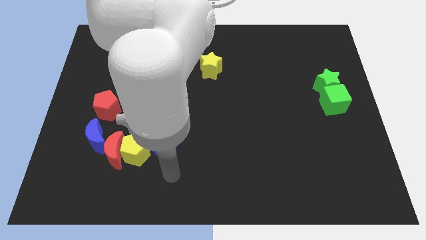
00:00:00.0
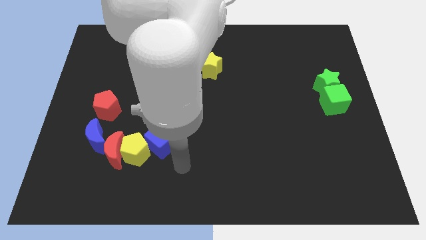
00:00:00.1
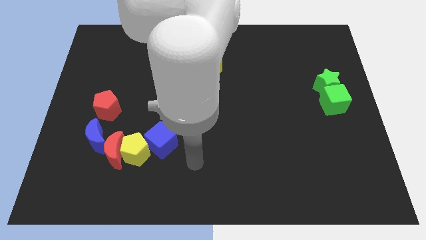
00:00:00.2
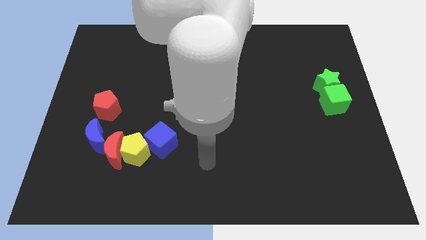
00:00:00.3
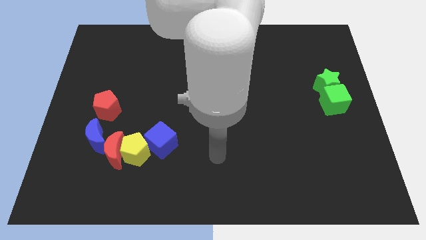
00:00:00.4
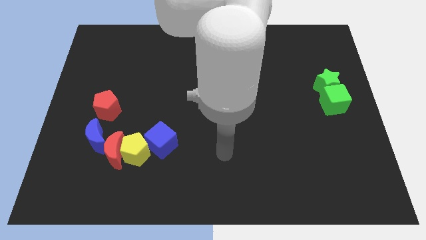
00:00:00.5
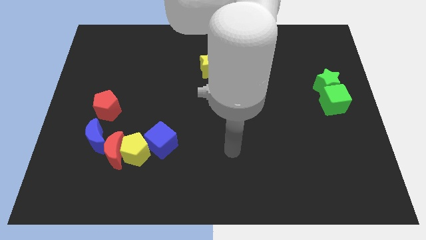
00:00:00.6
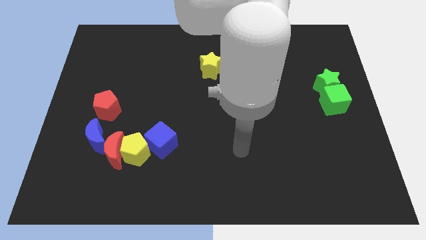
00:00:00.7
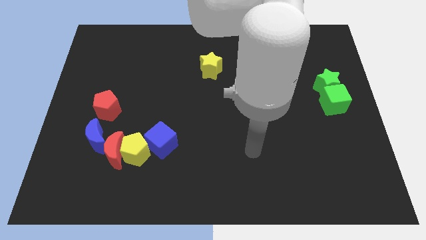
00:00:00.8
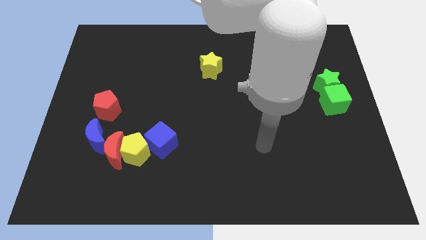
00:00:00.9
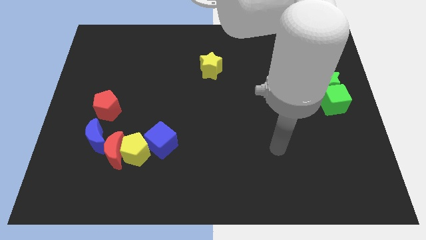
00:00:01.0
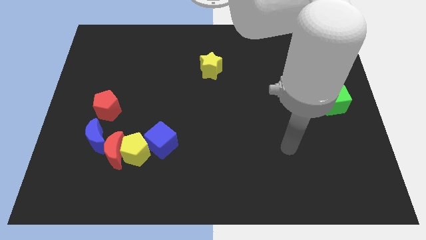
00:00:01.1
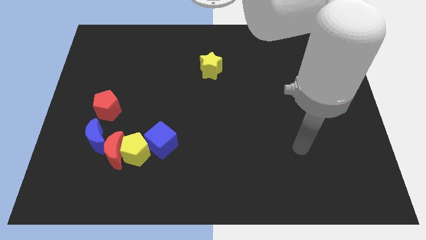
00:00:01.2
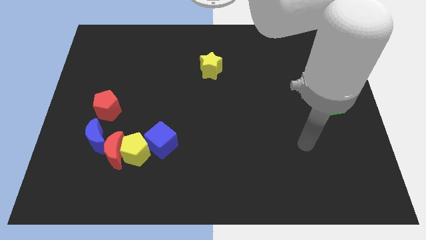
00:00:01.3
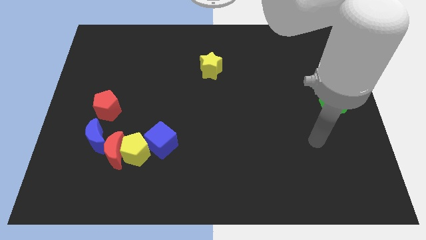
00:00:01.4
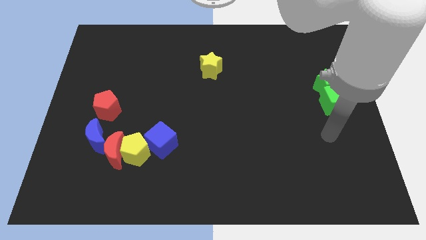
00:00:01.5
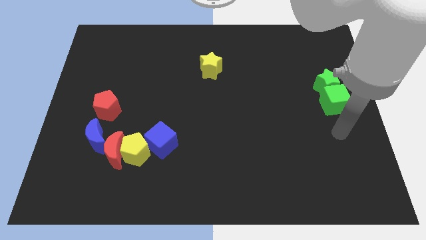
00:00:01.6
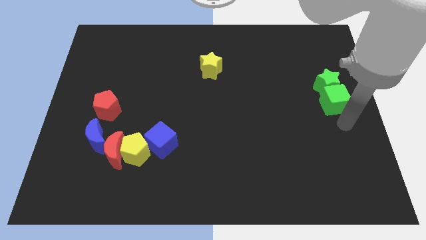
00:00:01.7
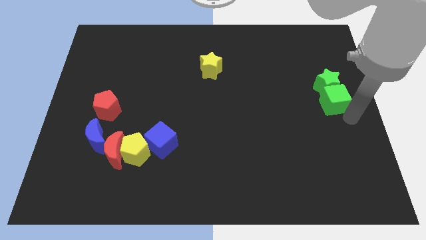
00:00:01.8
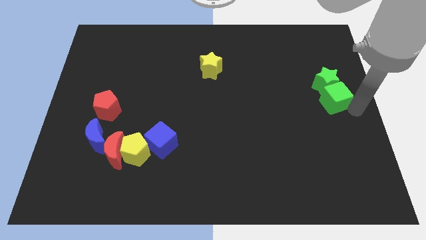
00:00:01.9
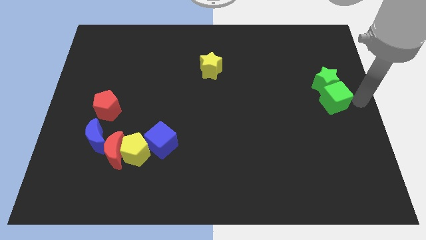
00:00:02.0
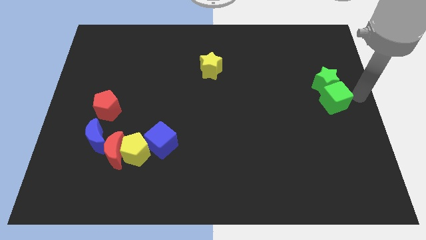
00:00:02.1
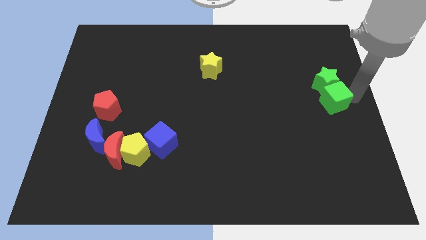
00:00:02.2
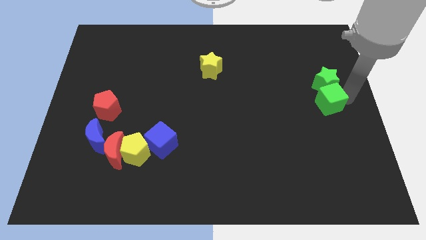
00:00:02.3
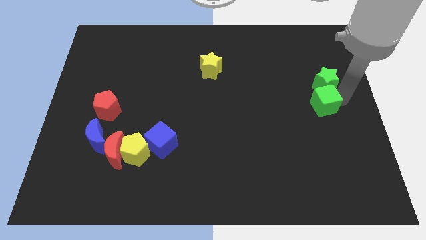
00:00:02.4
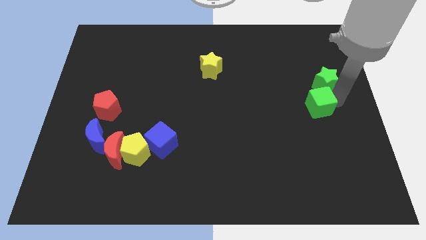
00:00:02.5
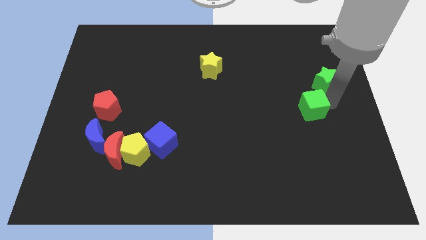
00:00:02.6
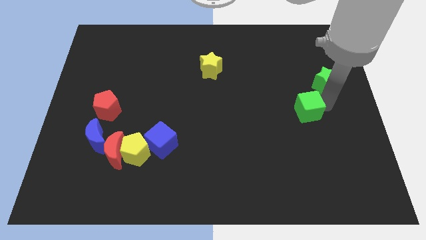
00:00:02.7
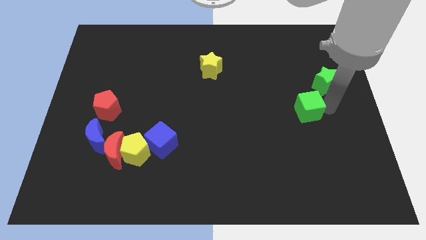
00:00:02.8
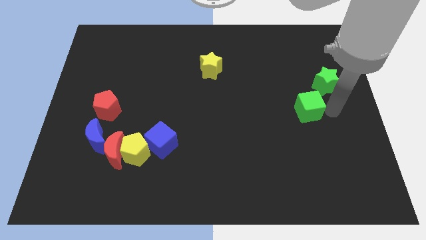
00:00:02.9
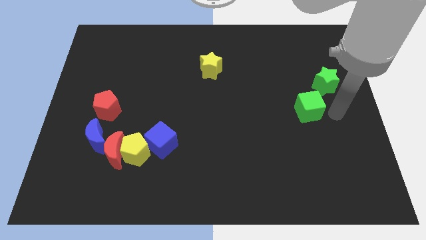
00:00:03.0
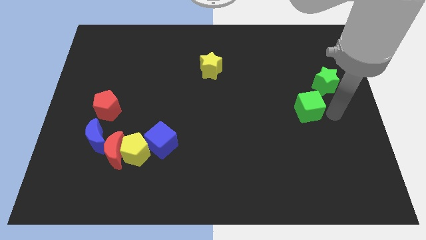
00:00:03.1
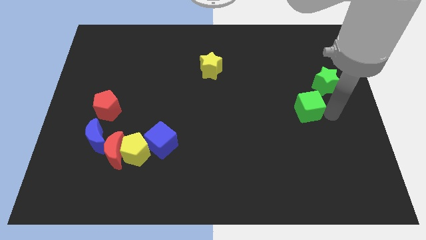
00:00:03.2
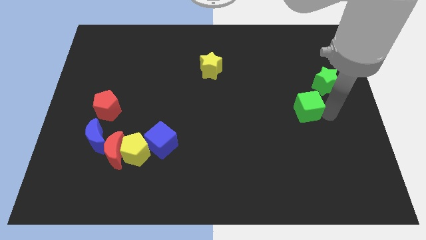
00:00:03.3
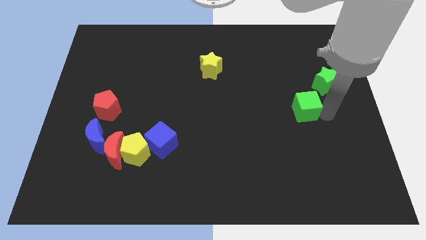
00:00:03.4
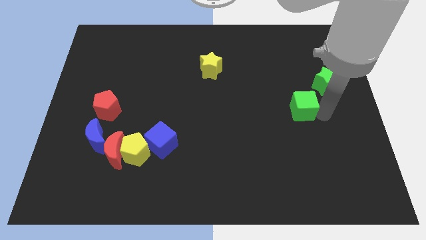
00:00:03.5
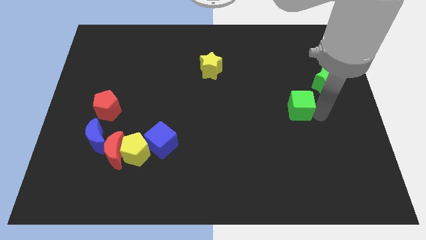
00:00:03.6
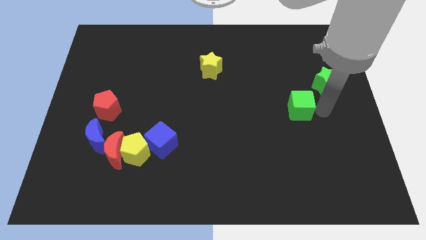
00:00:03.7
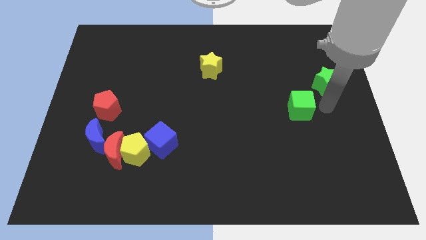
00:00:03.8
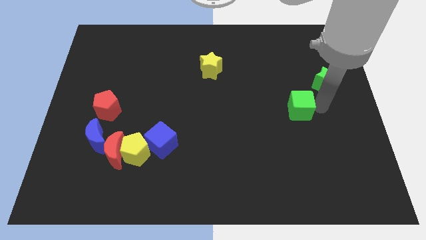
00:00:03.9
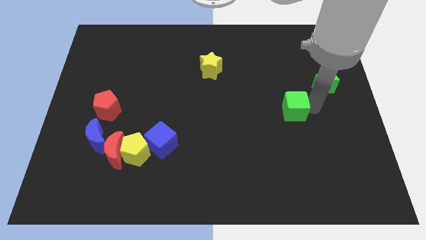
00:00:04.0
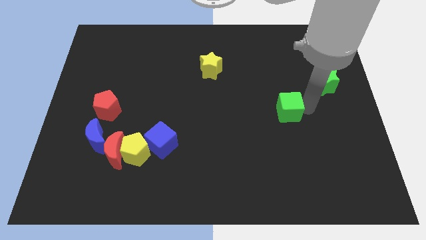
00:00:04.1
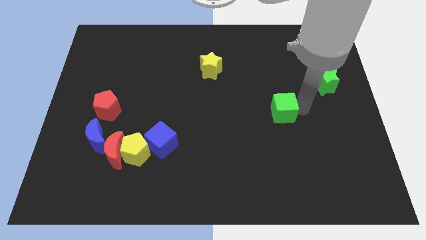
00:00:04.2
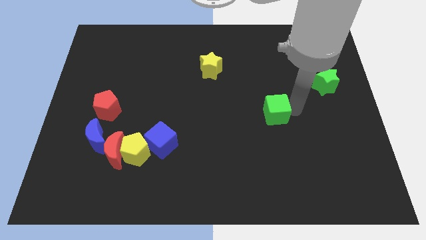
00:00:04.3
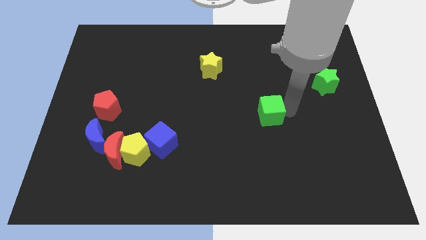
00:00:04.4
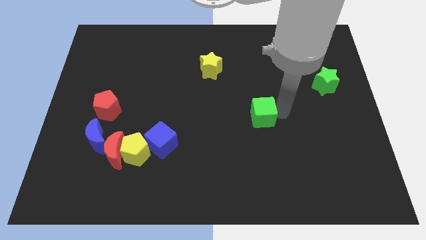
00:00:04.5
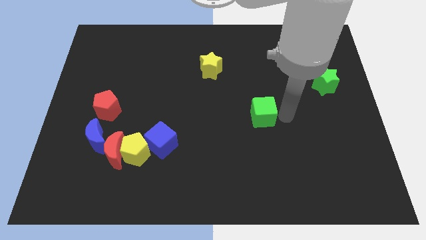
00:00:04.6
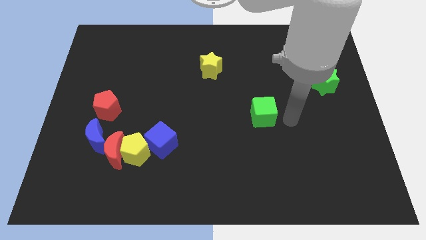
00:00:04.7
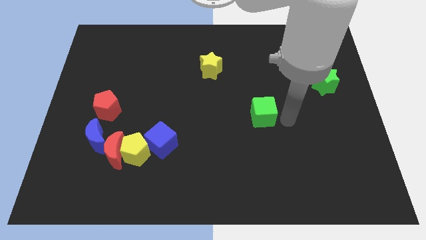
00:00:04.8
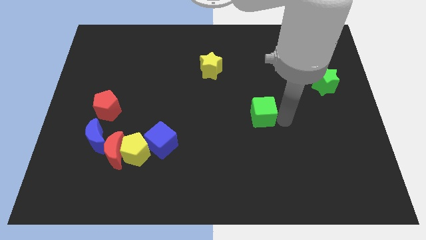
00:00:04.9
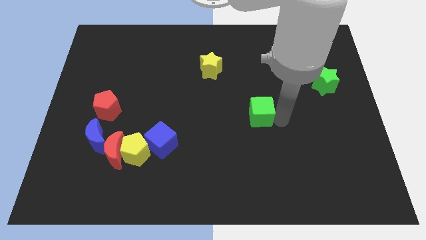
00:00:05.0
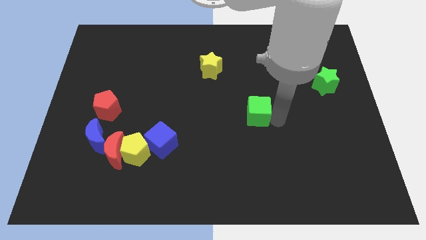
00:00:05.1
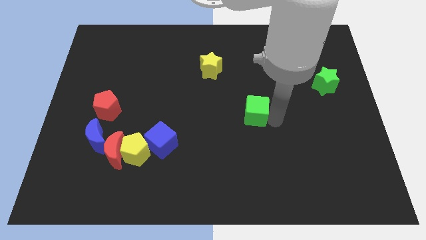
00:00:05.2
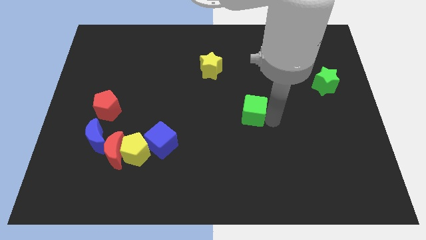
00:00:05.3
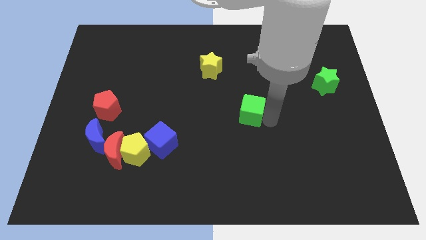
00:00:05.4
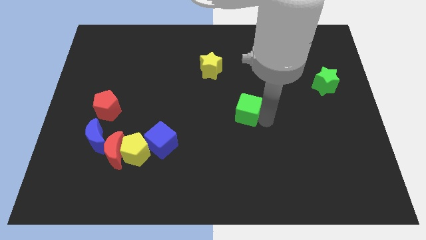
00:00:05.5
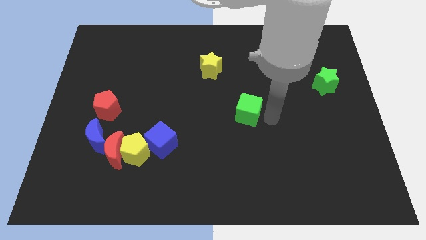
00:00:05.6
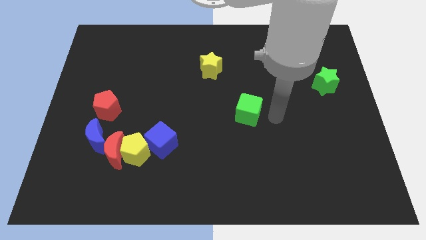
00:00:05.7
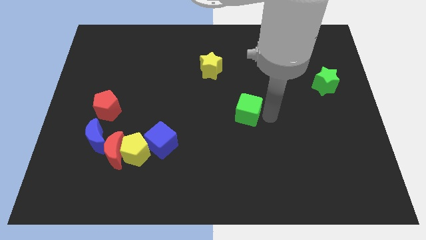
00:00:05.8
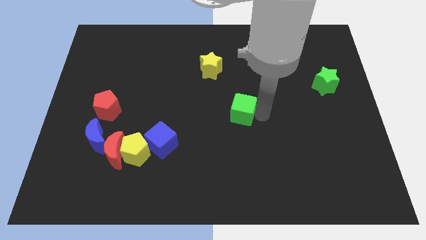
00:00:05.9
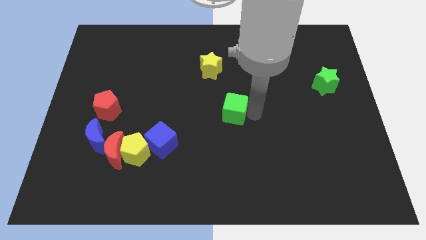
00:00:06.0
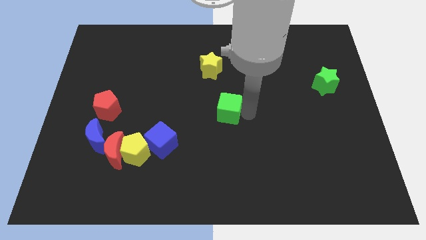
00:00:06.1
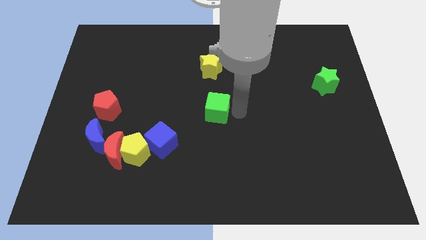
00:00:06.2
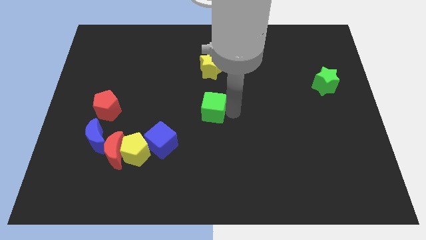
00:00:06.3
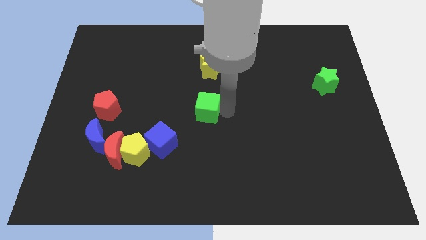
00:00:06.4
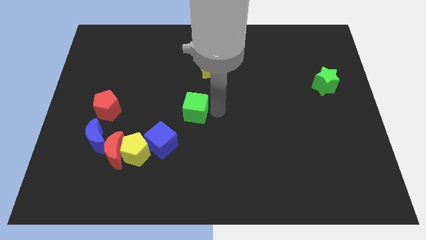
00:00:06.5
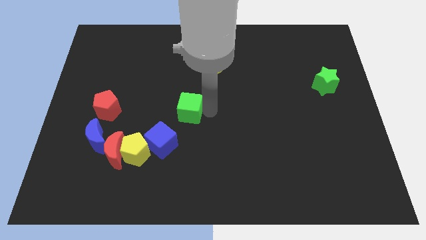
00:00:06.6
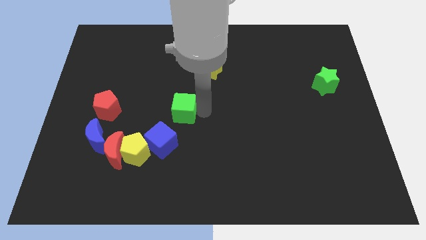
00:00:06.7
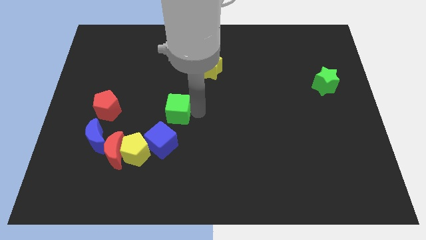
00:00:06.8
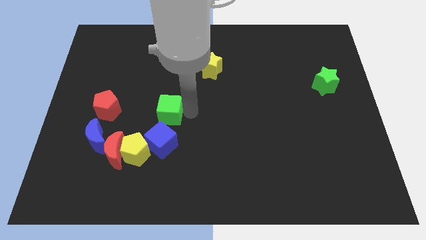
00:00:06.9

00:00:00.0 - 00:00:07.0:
push the green cube to the right of the red pentagon

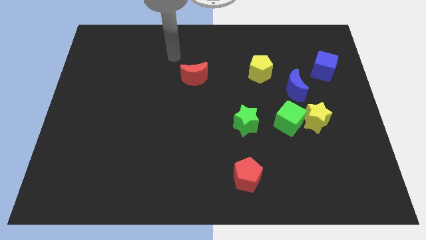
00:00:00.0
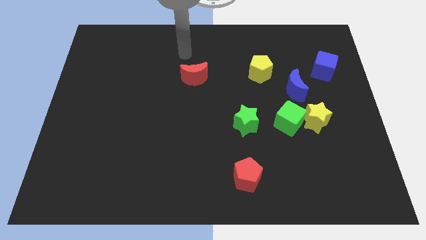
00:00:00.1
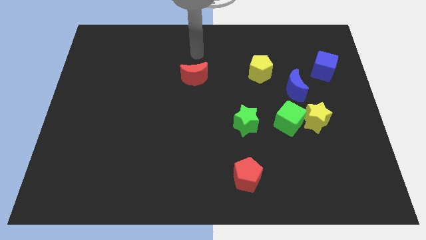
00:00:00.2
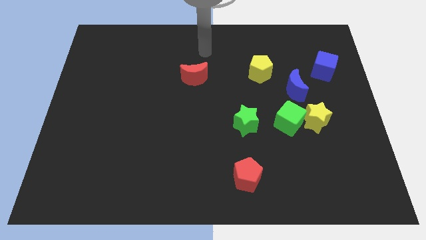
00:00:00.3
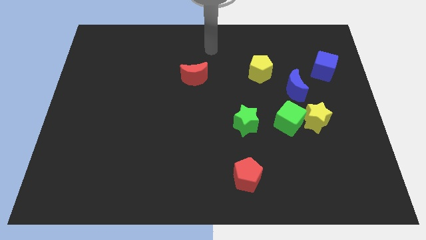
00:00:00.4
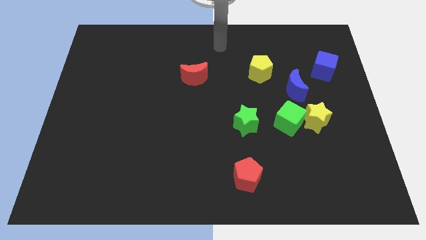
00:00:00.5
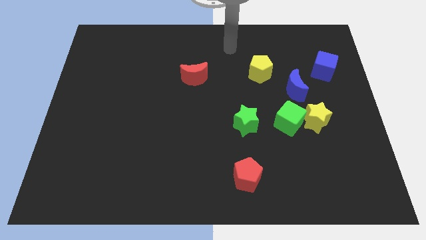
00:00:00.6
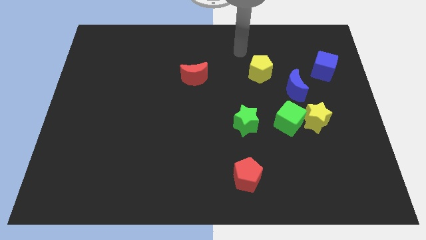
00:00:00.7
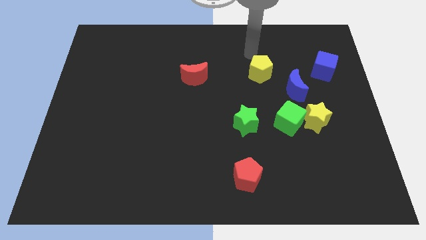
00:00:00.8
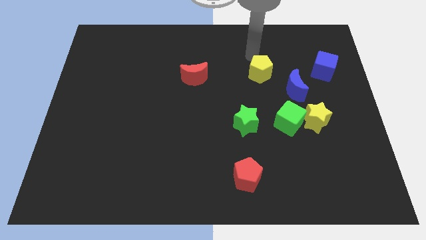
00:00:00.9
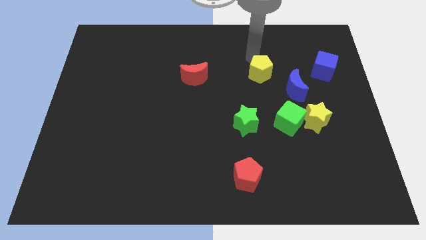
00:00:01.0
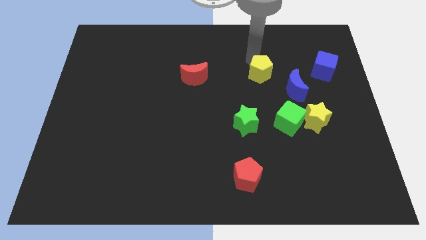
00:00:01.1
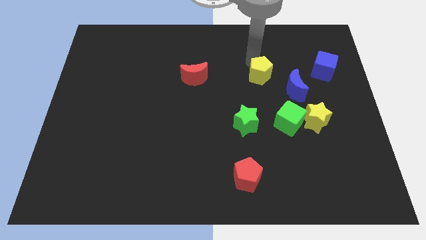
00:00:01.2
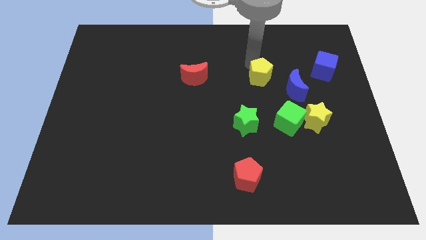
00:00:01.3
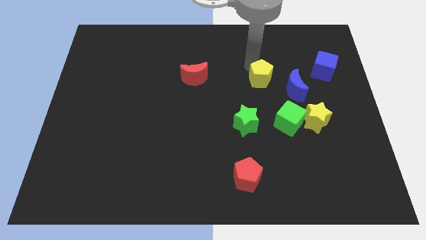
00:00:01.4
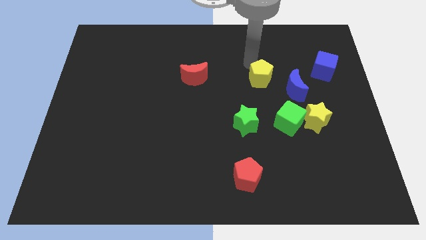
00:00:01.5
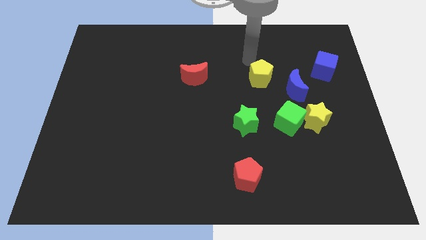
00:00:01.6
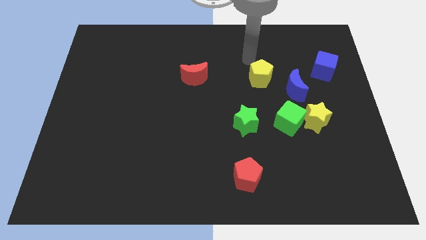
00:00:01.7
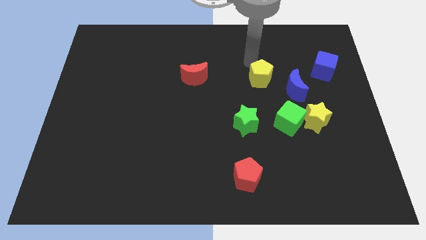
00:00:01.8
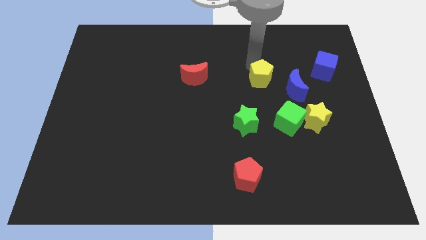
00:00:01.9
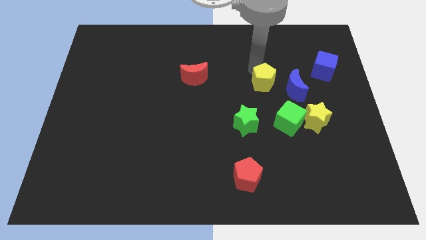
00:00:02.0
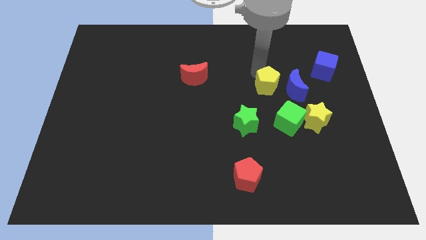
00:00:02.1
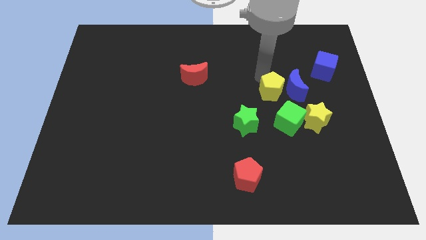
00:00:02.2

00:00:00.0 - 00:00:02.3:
slide the yellow pentagon to the bottom left side of the blue moon
